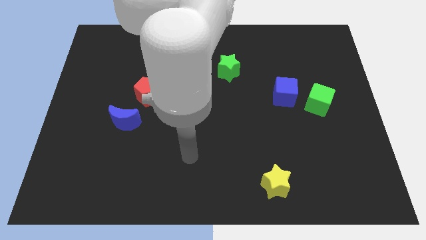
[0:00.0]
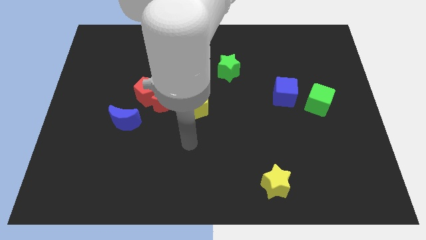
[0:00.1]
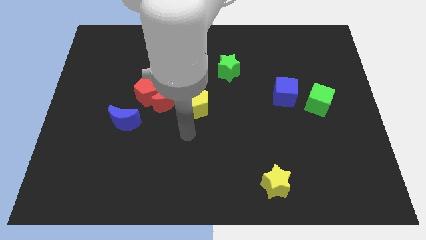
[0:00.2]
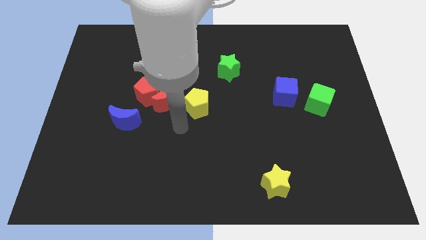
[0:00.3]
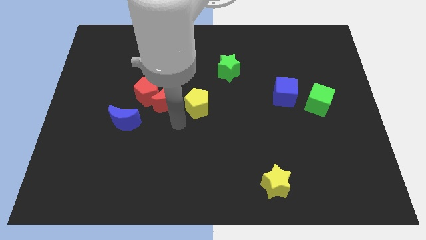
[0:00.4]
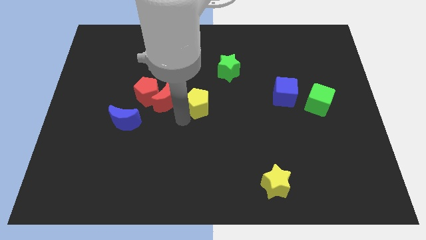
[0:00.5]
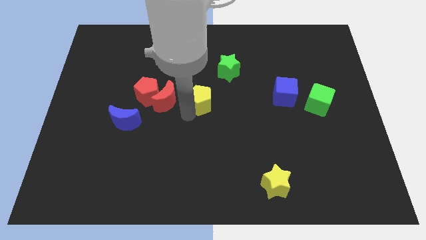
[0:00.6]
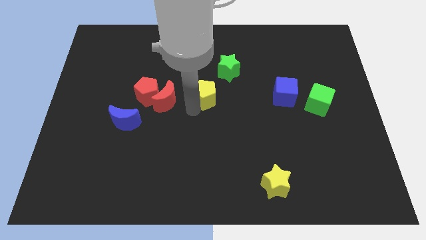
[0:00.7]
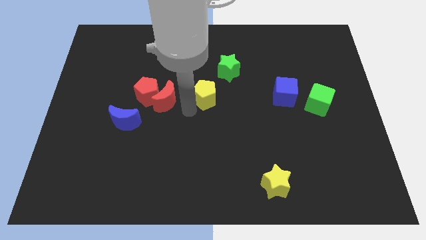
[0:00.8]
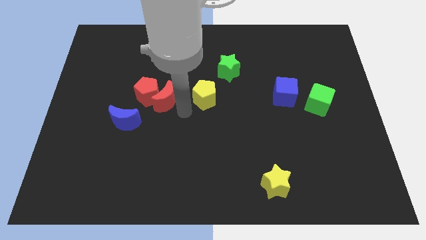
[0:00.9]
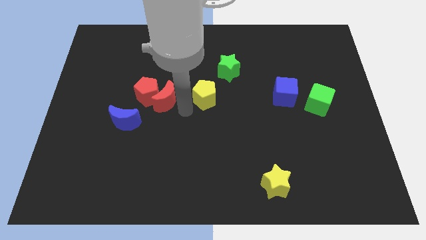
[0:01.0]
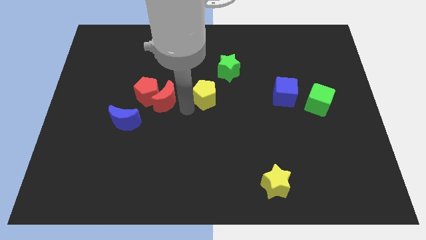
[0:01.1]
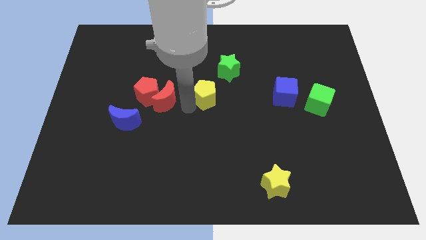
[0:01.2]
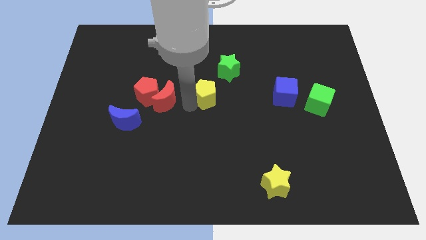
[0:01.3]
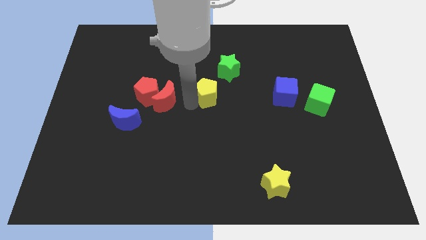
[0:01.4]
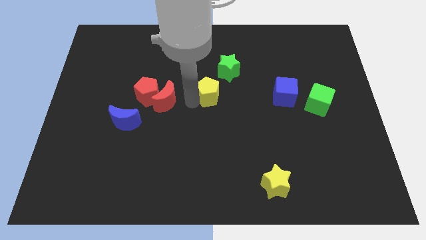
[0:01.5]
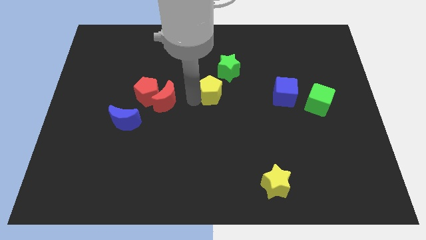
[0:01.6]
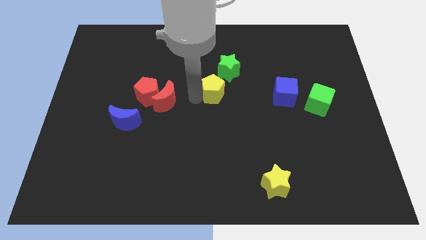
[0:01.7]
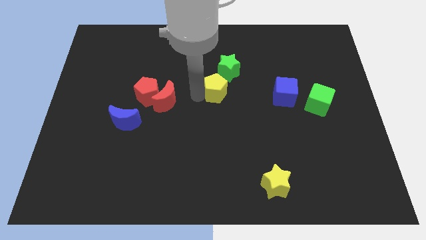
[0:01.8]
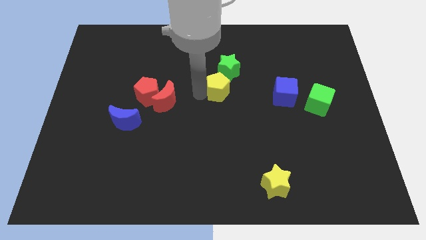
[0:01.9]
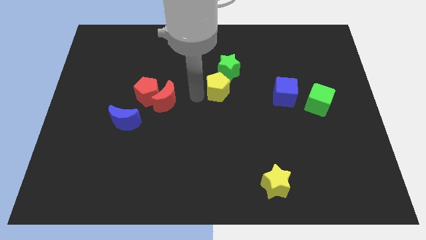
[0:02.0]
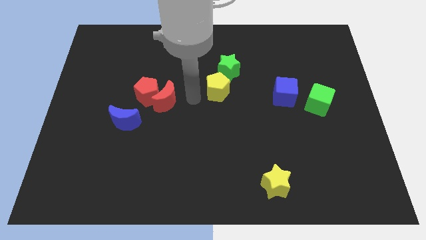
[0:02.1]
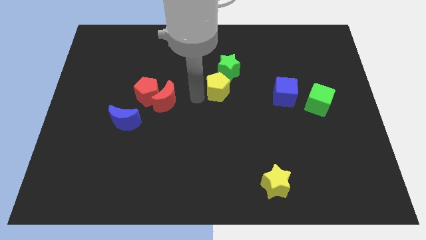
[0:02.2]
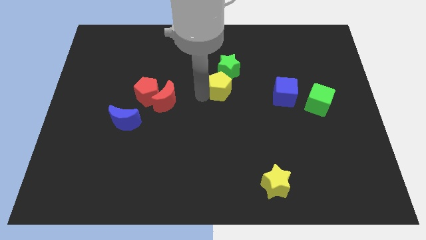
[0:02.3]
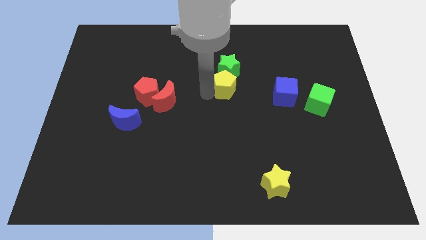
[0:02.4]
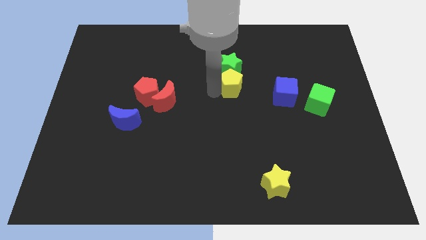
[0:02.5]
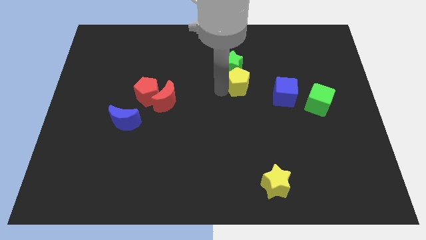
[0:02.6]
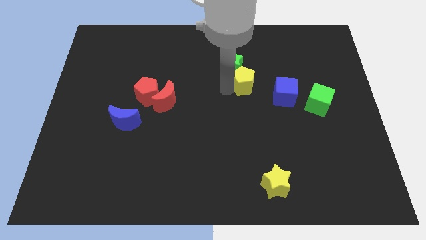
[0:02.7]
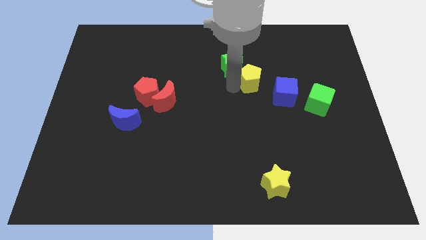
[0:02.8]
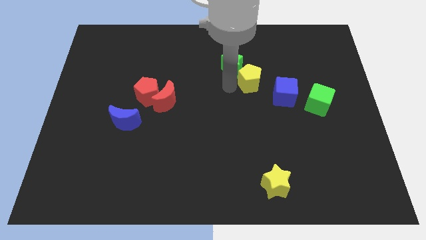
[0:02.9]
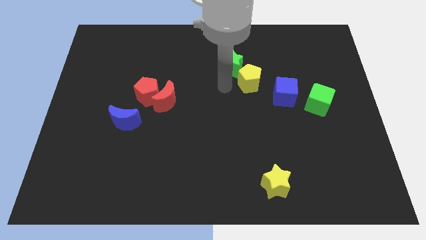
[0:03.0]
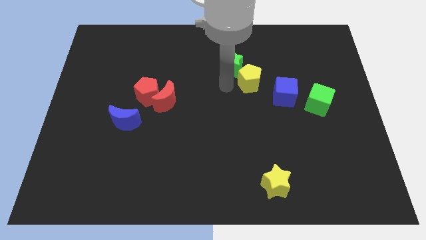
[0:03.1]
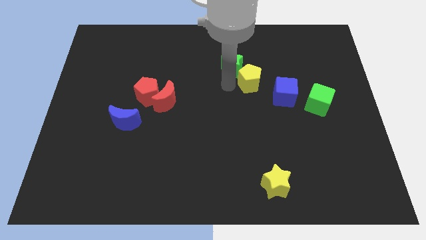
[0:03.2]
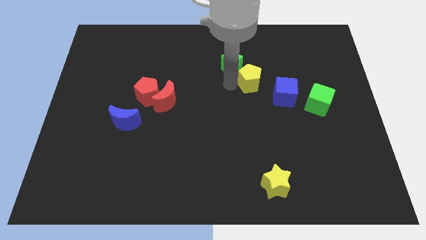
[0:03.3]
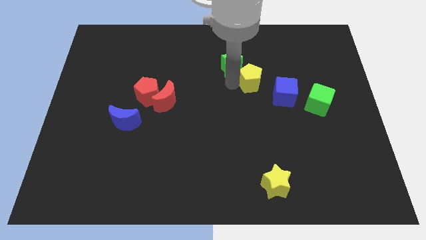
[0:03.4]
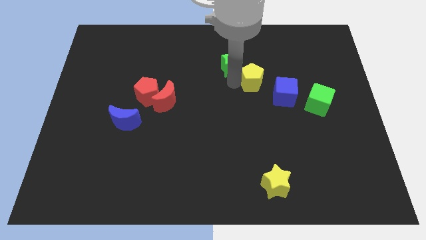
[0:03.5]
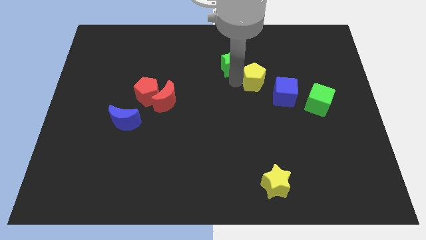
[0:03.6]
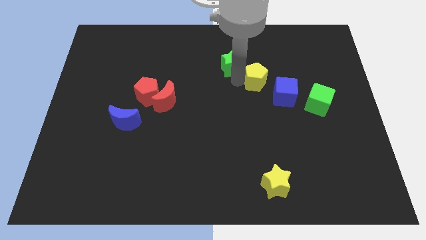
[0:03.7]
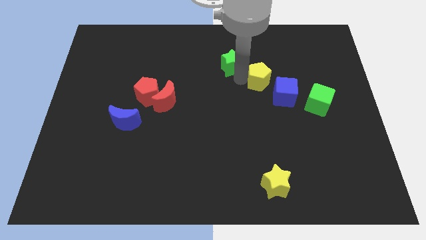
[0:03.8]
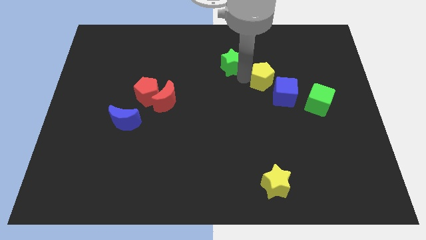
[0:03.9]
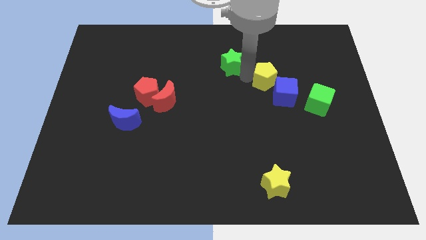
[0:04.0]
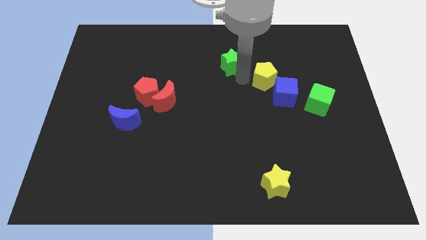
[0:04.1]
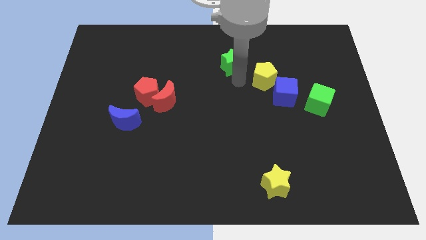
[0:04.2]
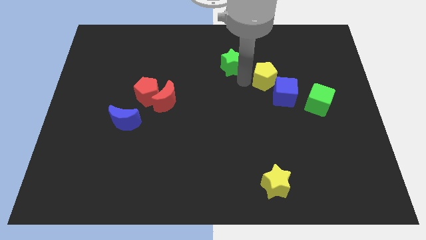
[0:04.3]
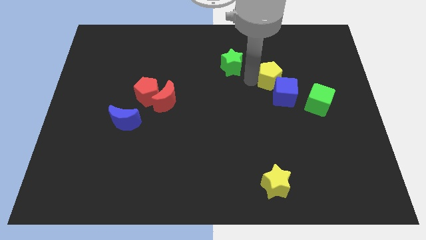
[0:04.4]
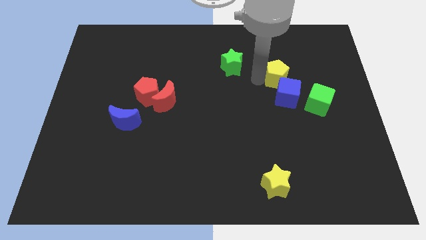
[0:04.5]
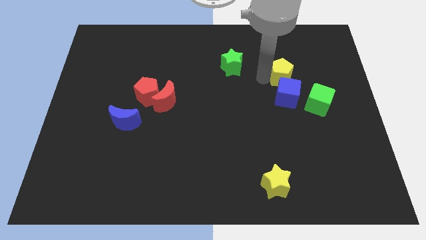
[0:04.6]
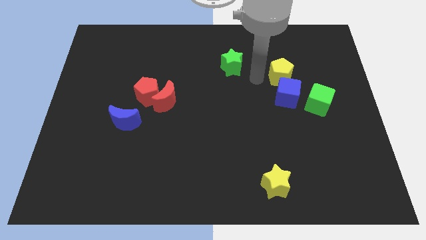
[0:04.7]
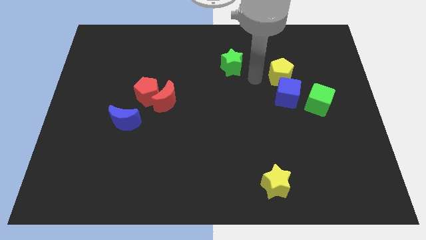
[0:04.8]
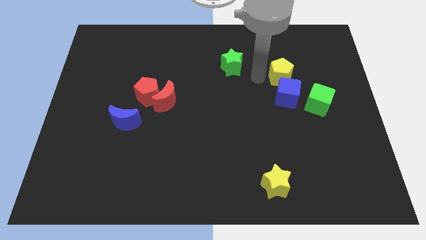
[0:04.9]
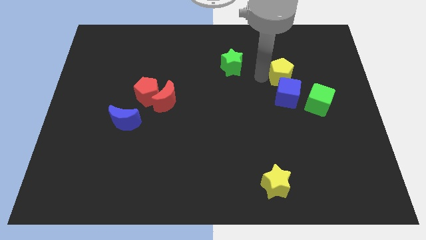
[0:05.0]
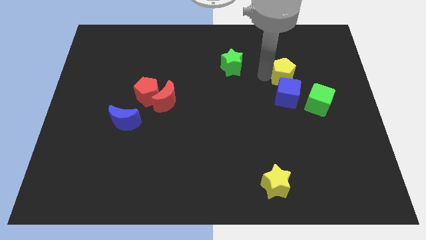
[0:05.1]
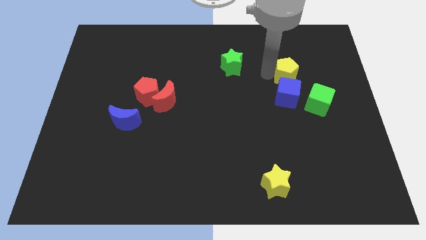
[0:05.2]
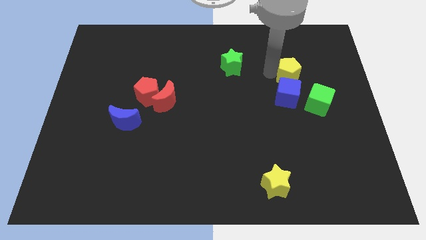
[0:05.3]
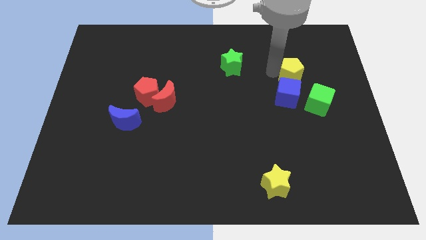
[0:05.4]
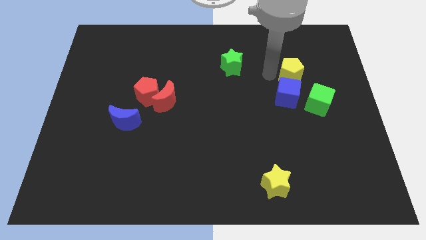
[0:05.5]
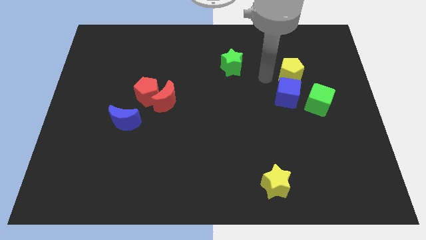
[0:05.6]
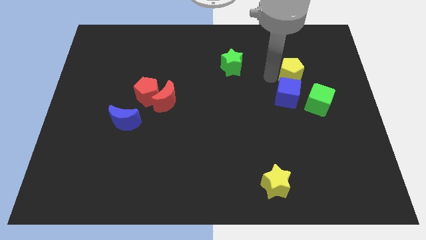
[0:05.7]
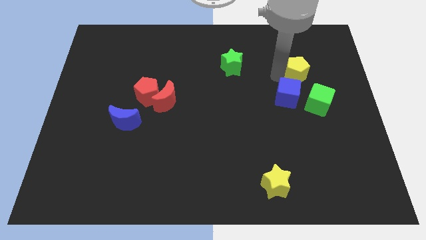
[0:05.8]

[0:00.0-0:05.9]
slide the yellow pentagon to the top of the green cube

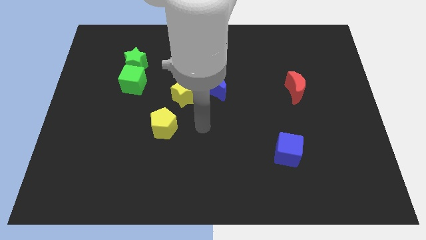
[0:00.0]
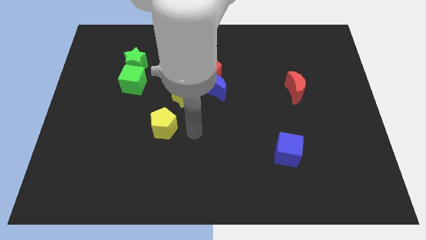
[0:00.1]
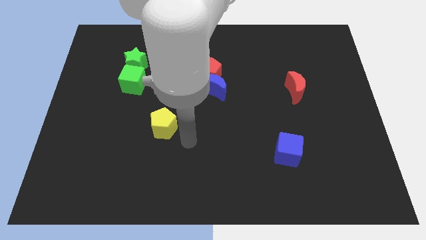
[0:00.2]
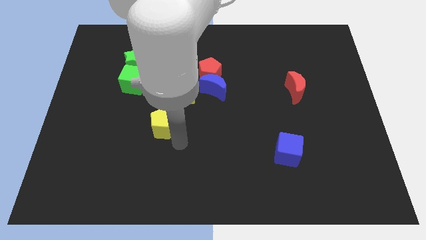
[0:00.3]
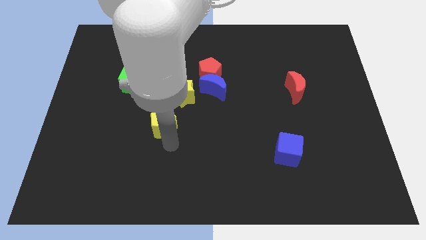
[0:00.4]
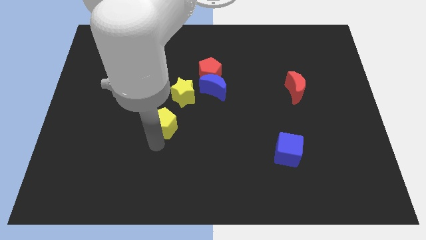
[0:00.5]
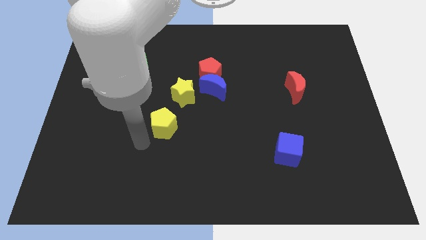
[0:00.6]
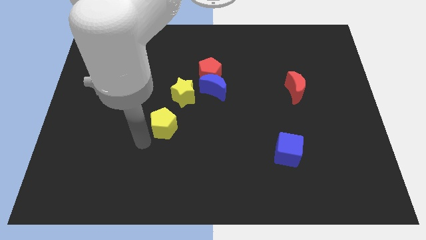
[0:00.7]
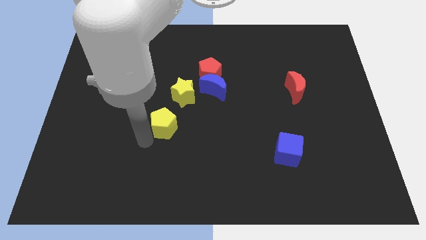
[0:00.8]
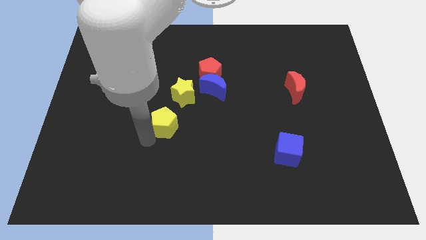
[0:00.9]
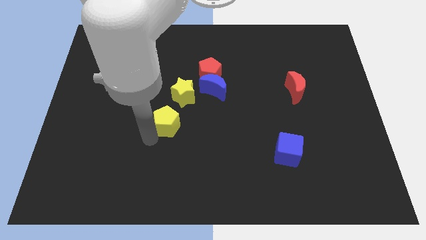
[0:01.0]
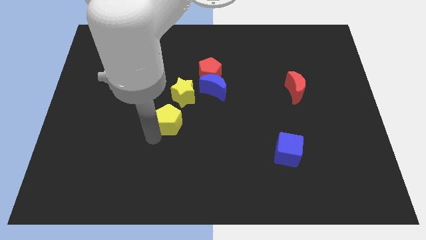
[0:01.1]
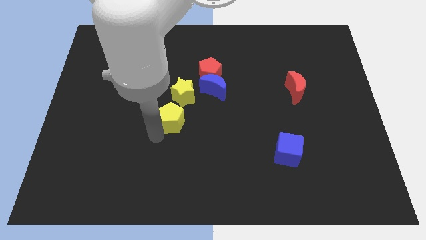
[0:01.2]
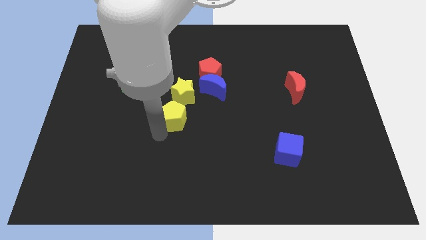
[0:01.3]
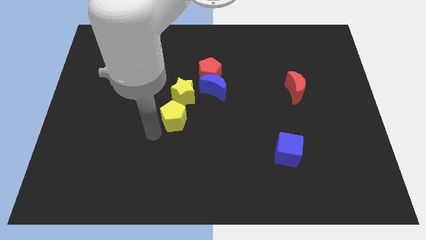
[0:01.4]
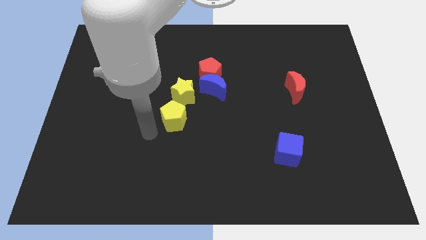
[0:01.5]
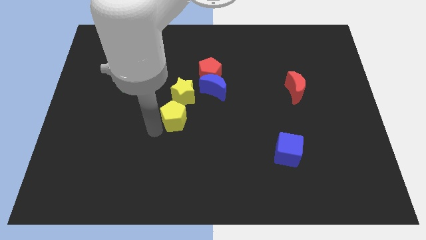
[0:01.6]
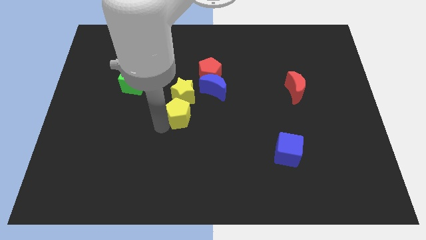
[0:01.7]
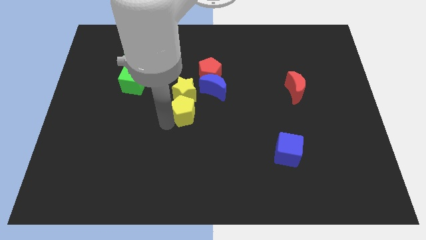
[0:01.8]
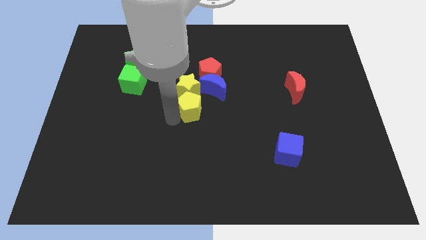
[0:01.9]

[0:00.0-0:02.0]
push the yellow pentagon to the bottom of the red pentagon
